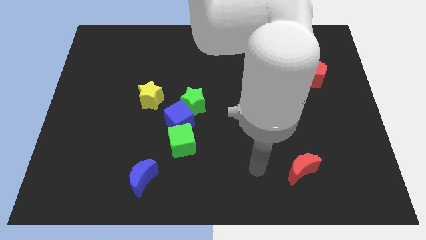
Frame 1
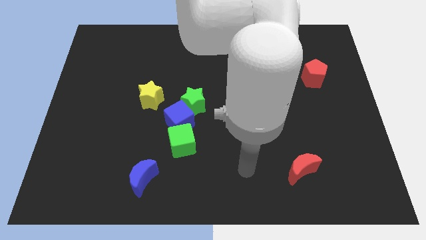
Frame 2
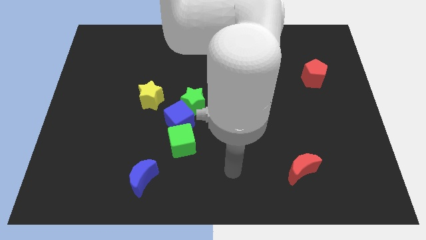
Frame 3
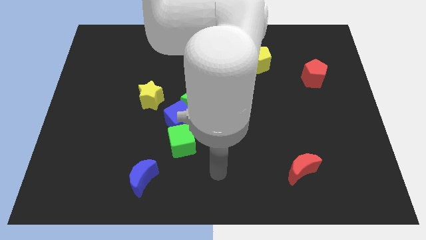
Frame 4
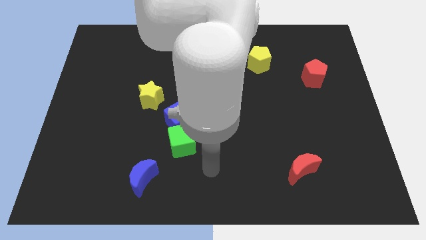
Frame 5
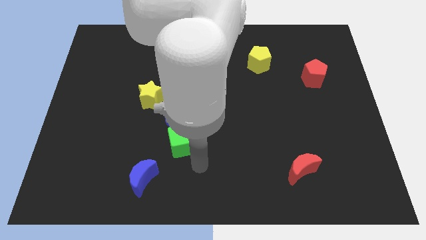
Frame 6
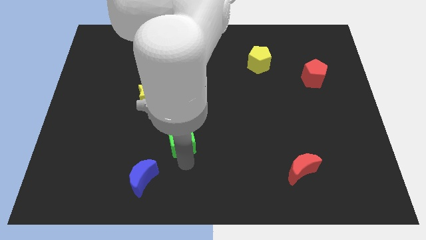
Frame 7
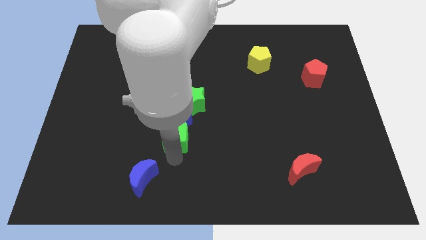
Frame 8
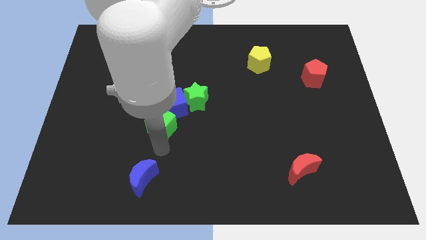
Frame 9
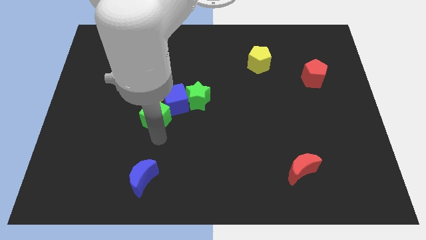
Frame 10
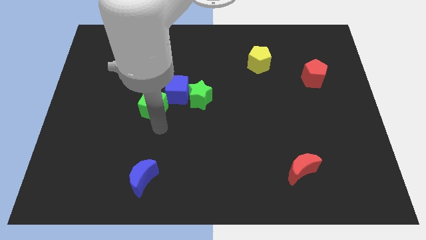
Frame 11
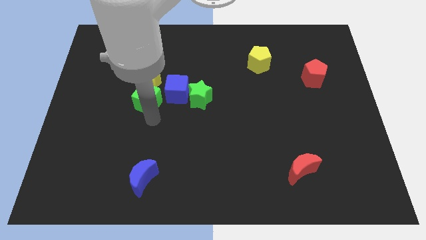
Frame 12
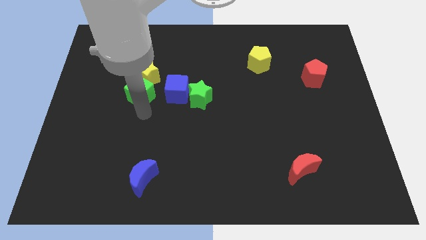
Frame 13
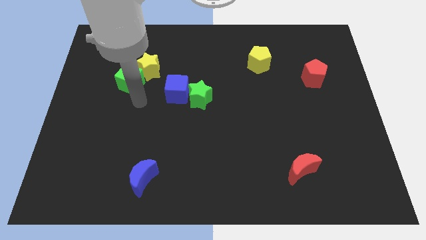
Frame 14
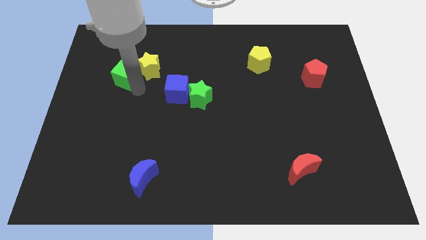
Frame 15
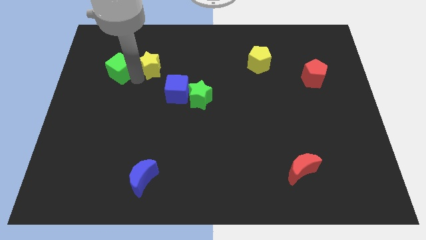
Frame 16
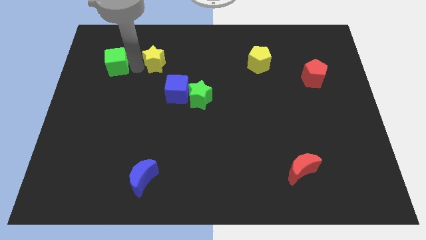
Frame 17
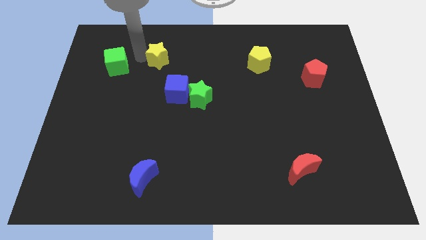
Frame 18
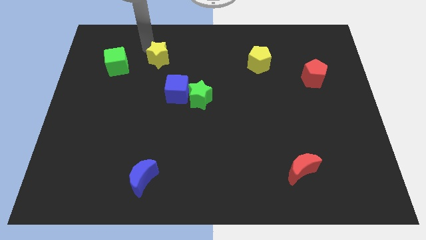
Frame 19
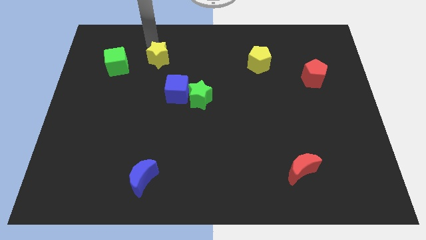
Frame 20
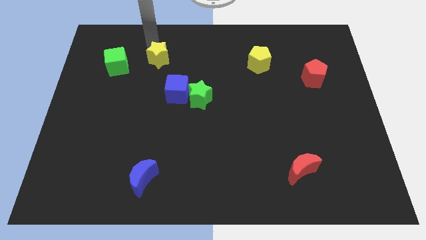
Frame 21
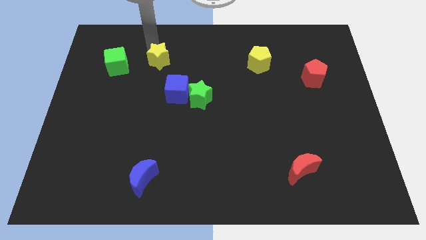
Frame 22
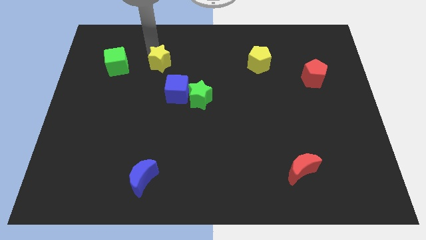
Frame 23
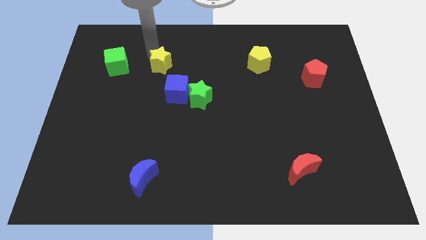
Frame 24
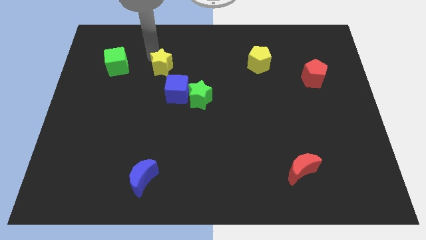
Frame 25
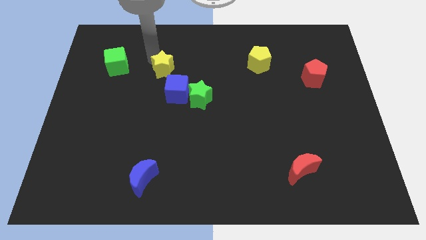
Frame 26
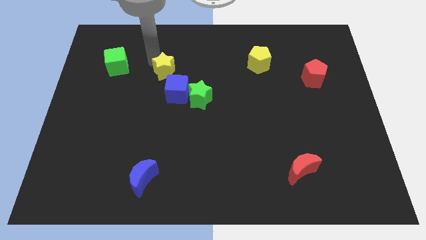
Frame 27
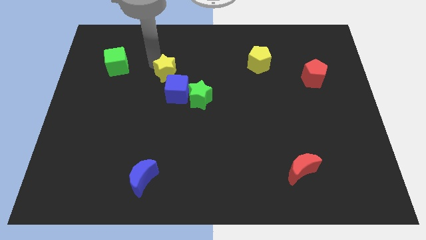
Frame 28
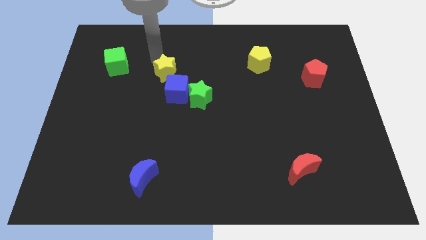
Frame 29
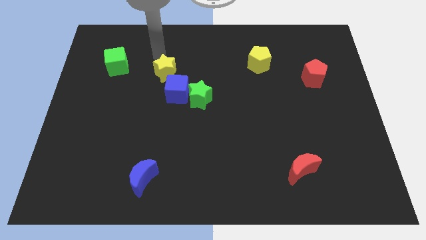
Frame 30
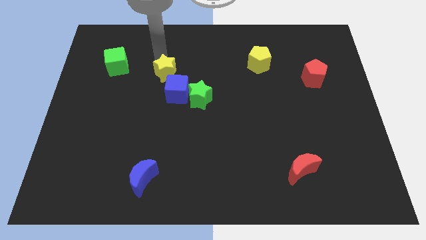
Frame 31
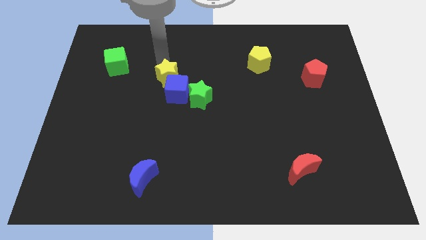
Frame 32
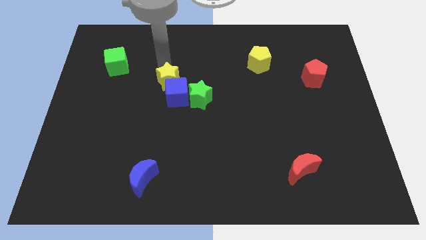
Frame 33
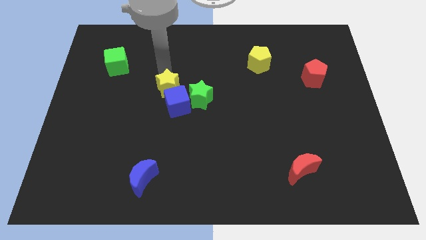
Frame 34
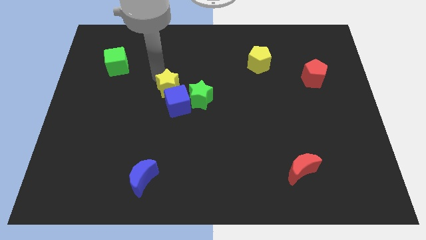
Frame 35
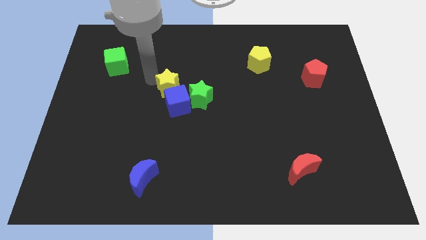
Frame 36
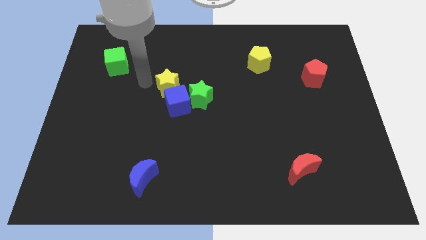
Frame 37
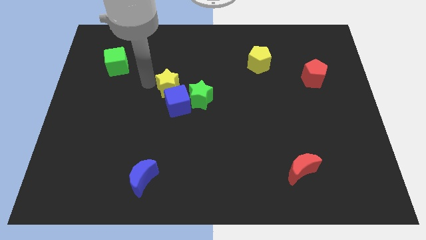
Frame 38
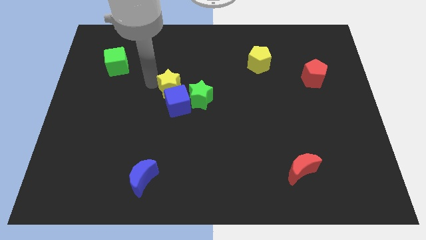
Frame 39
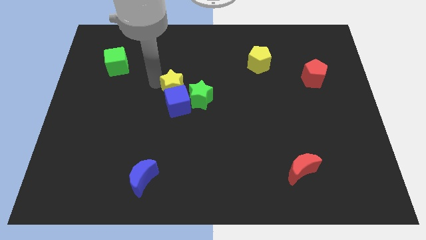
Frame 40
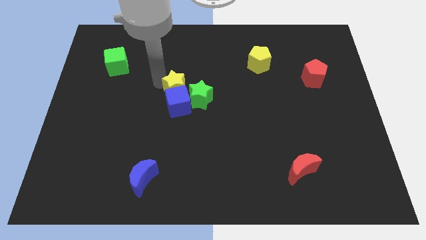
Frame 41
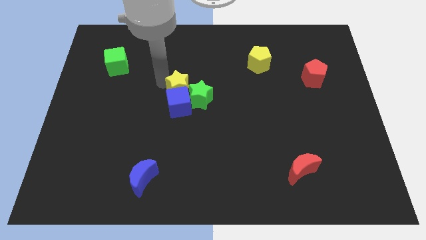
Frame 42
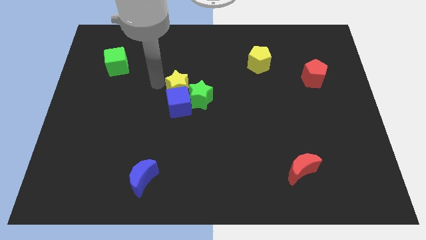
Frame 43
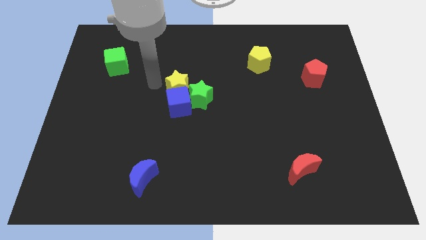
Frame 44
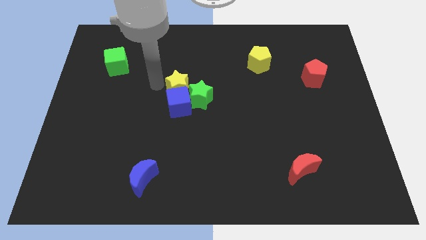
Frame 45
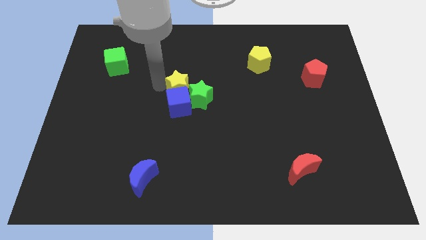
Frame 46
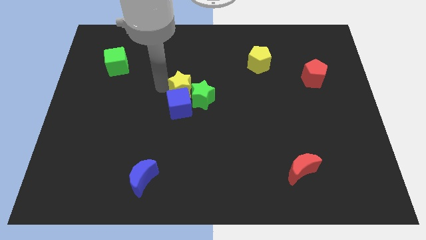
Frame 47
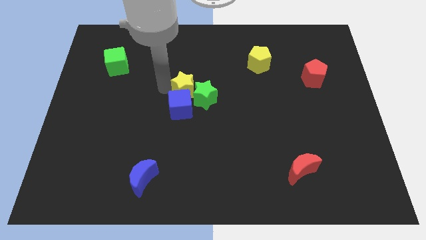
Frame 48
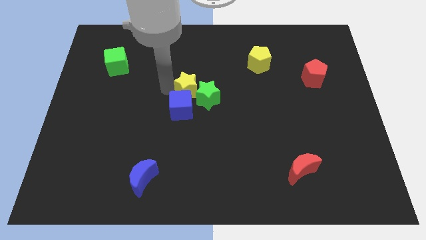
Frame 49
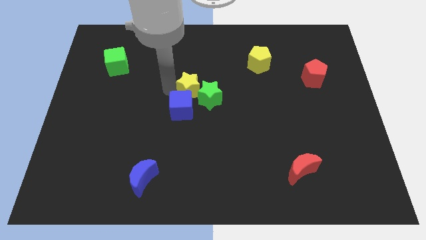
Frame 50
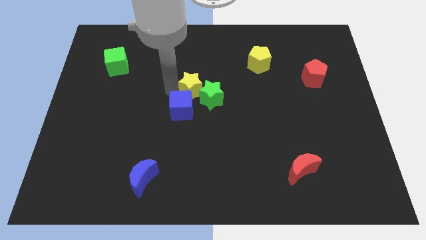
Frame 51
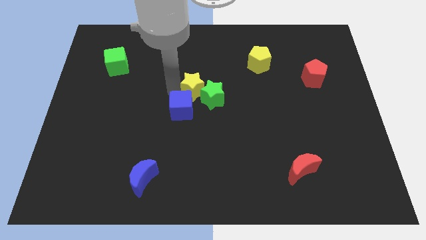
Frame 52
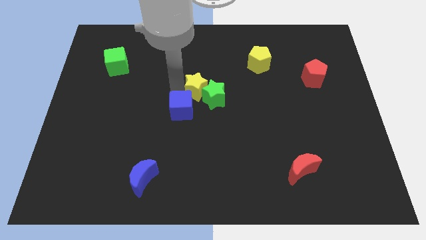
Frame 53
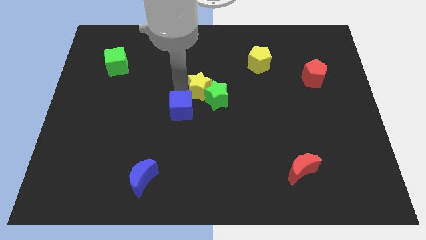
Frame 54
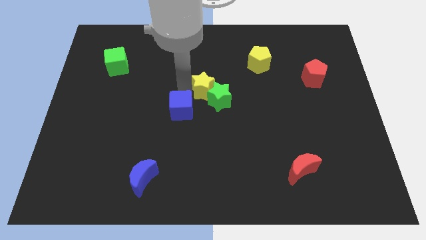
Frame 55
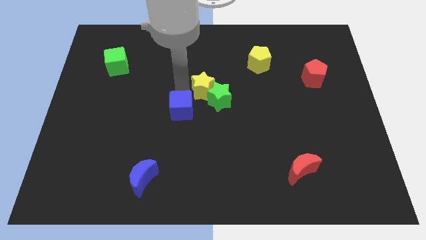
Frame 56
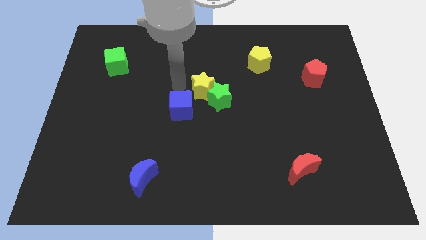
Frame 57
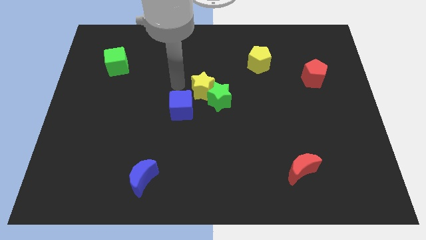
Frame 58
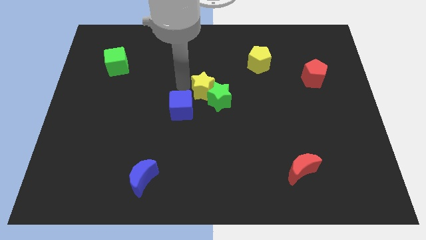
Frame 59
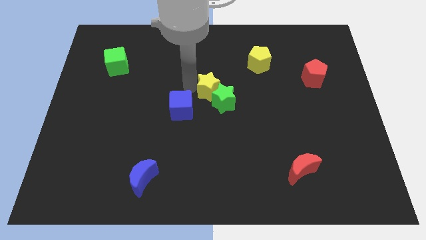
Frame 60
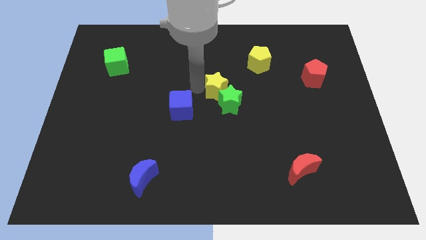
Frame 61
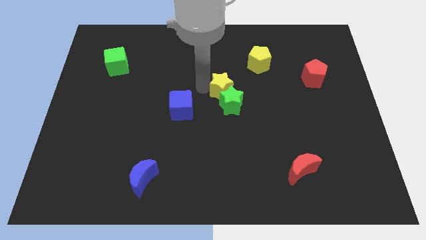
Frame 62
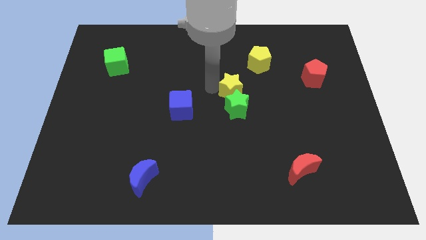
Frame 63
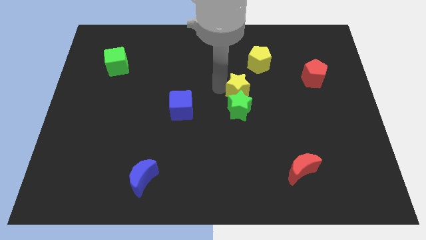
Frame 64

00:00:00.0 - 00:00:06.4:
push the yellow star to the right

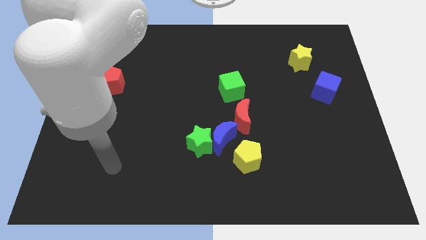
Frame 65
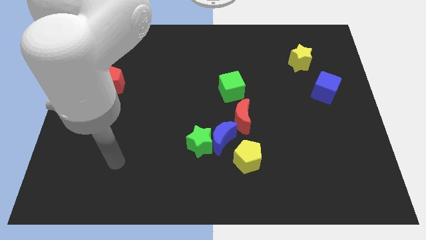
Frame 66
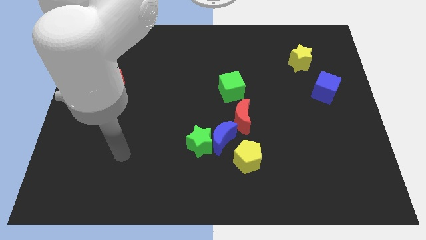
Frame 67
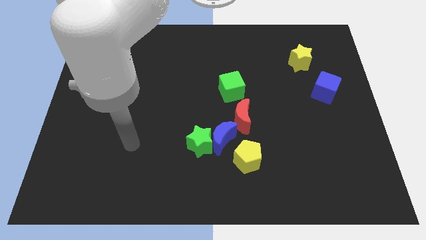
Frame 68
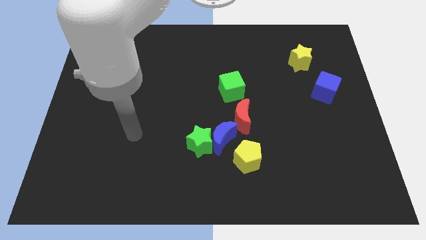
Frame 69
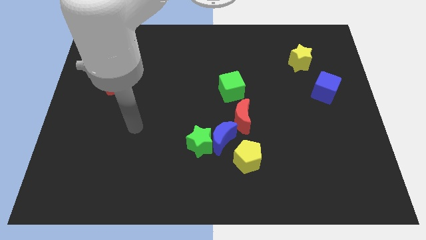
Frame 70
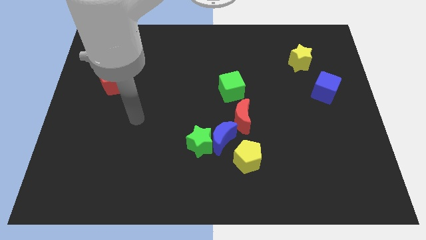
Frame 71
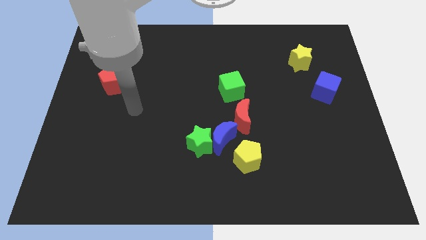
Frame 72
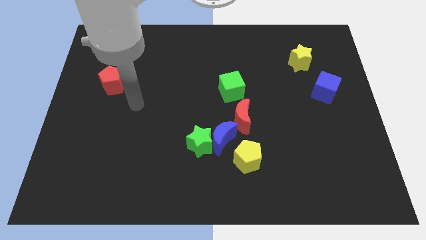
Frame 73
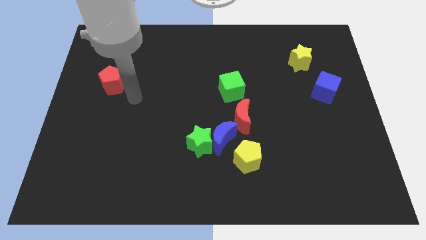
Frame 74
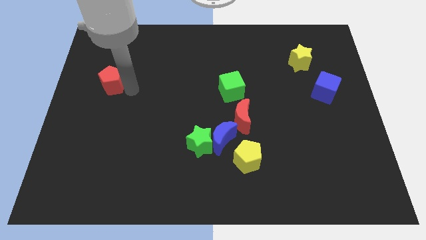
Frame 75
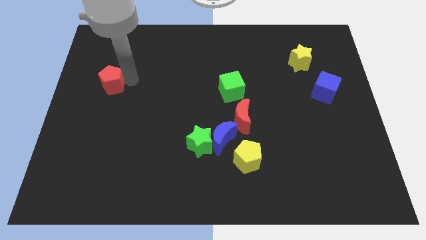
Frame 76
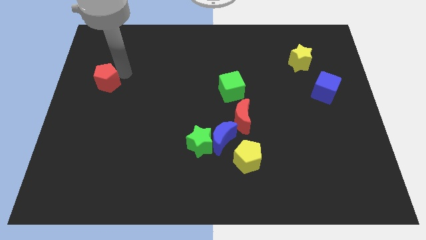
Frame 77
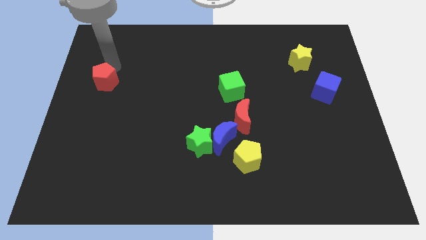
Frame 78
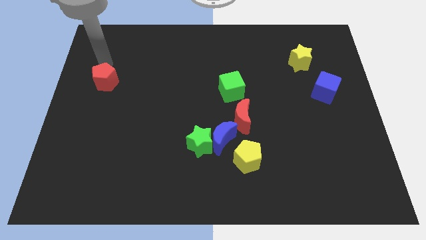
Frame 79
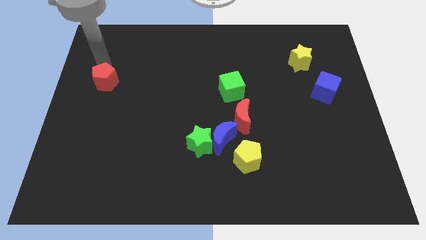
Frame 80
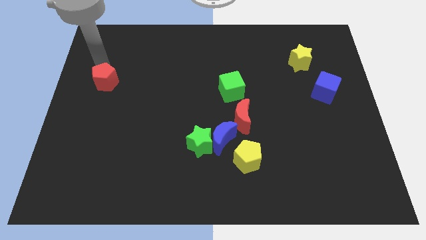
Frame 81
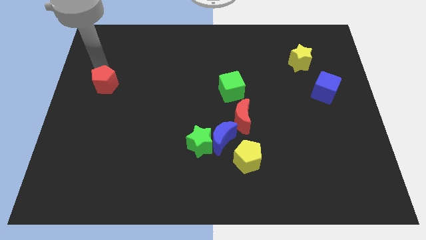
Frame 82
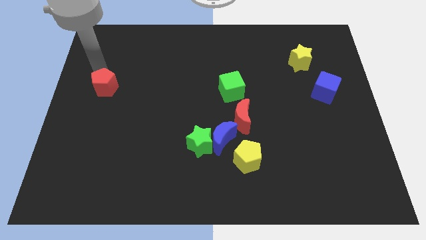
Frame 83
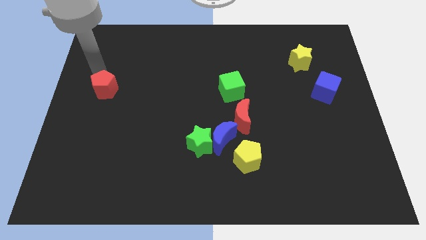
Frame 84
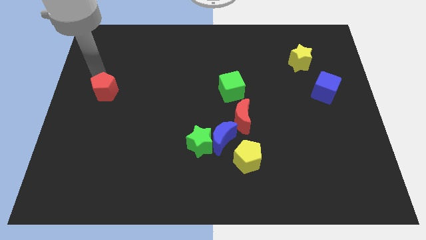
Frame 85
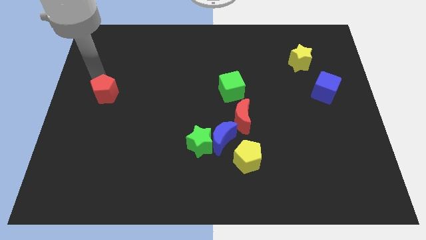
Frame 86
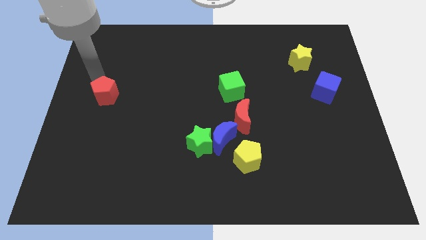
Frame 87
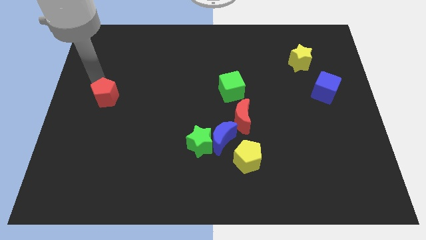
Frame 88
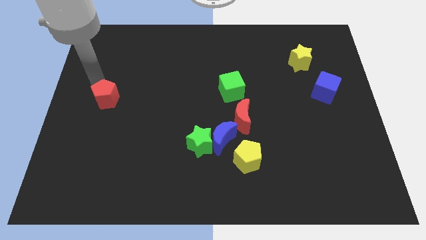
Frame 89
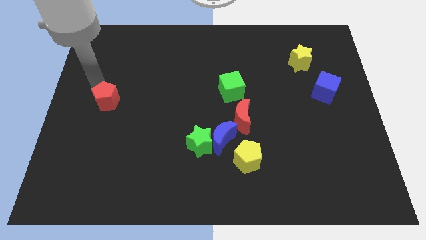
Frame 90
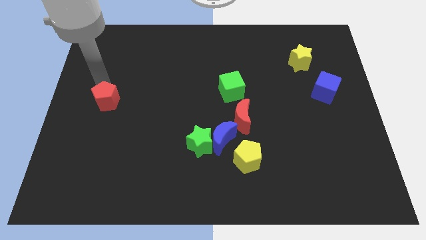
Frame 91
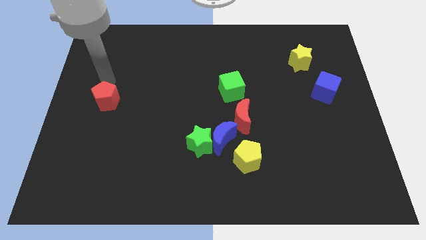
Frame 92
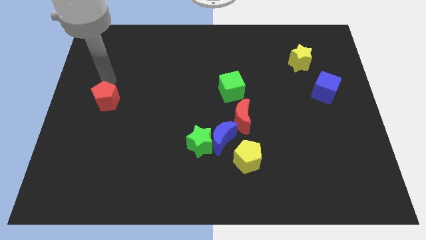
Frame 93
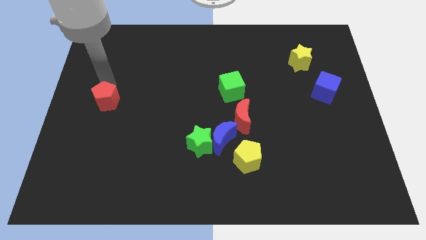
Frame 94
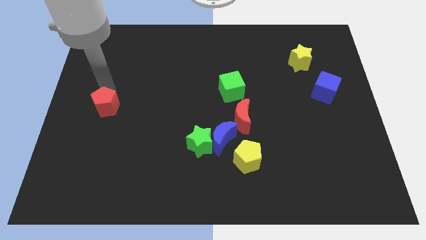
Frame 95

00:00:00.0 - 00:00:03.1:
move the red pentagon a bit downwards
